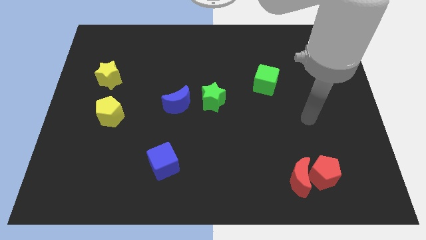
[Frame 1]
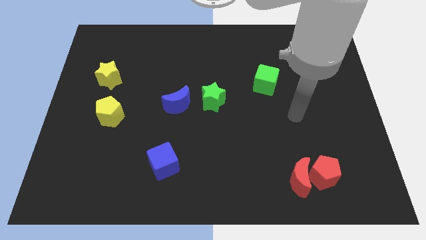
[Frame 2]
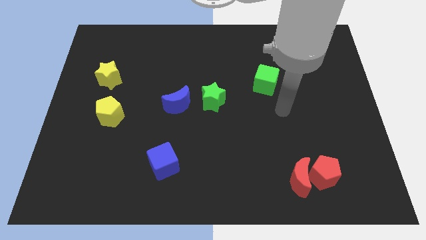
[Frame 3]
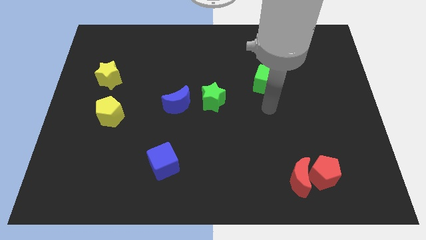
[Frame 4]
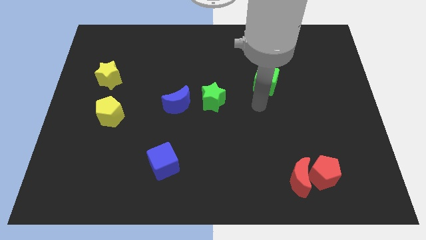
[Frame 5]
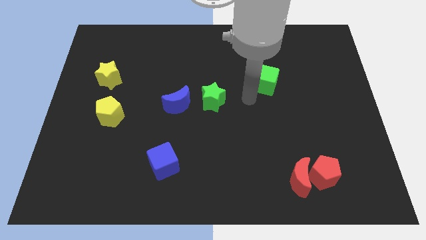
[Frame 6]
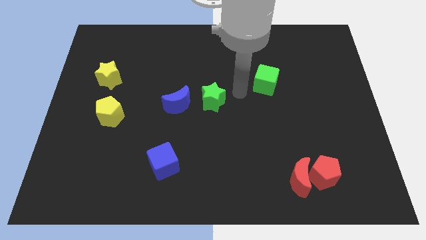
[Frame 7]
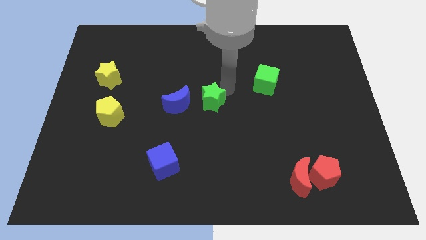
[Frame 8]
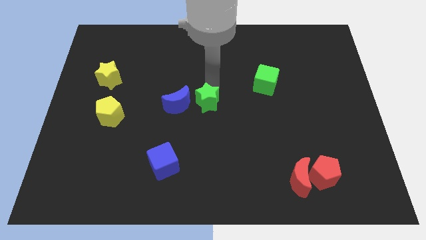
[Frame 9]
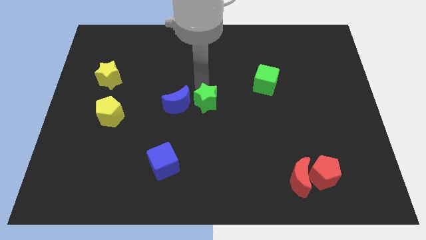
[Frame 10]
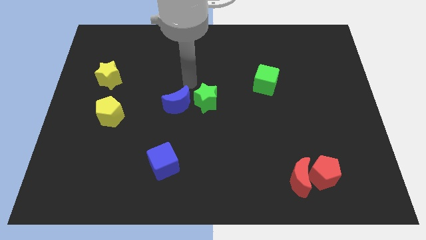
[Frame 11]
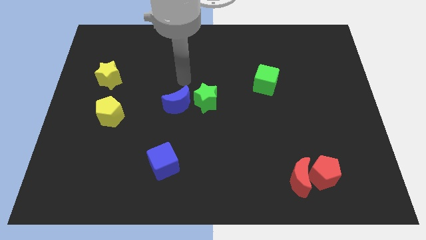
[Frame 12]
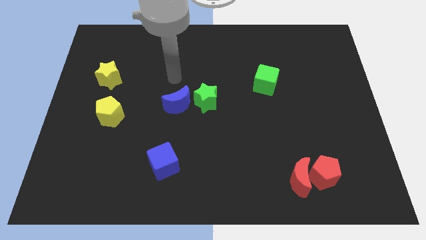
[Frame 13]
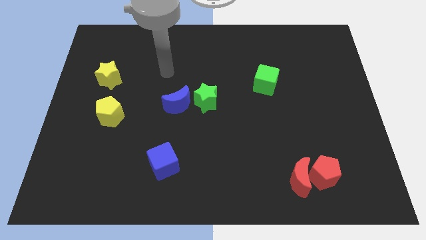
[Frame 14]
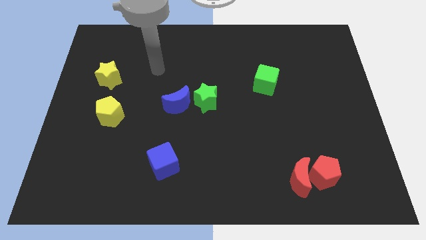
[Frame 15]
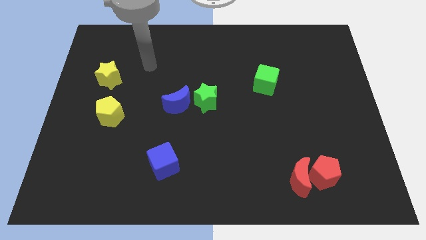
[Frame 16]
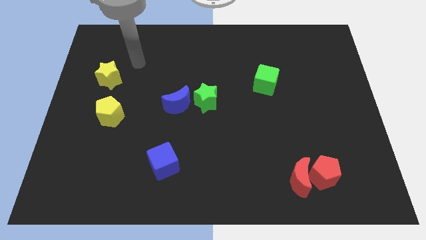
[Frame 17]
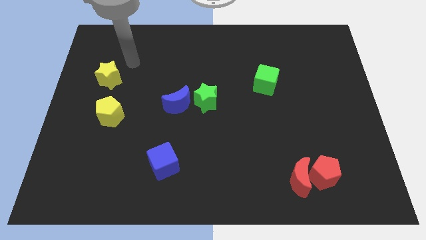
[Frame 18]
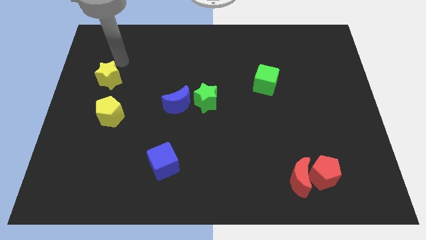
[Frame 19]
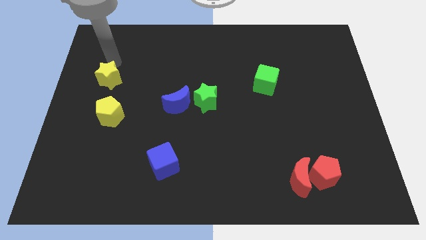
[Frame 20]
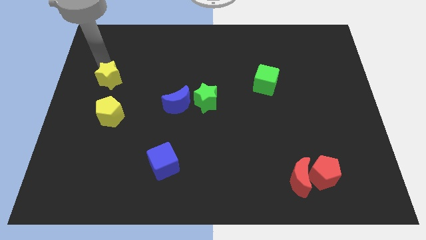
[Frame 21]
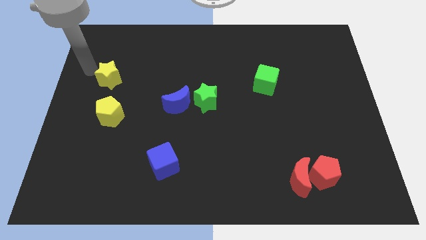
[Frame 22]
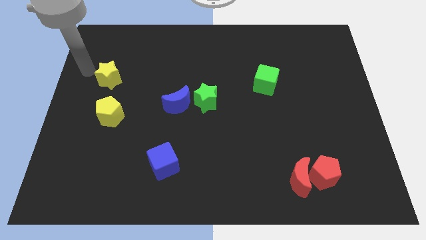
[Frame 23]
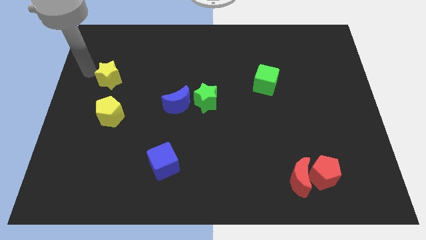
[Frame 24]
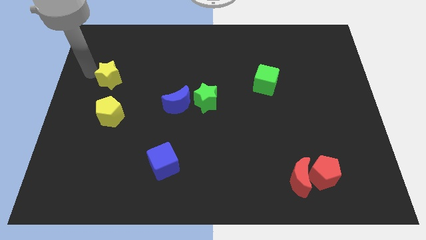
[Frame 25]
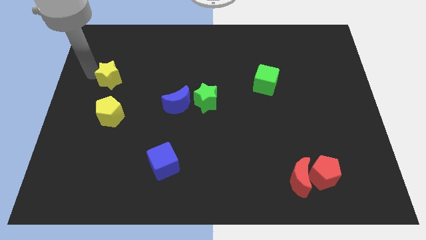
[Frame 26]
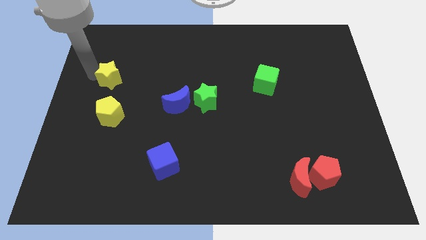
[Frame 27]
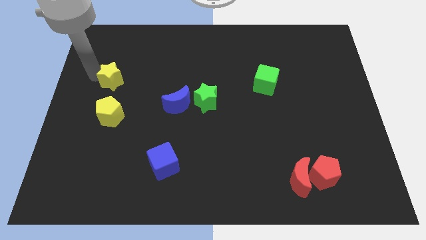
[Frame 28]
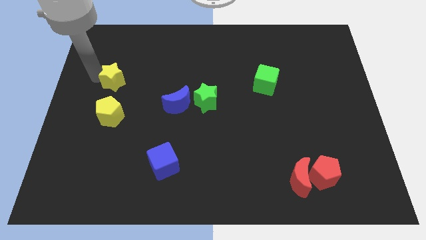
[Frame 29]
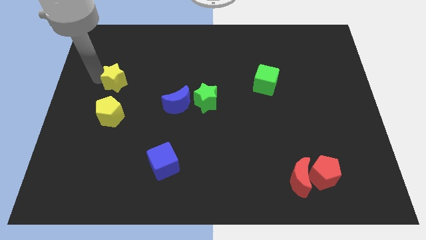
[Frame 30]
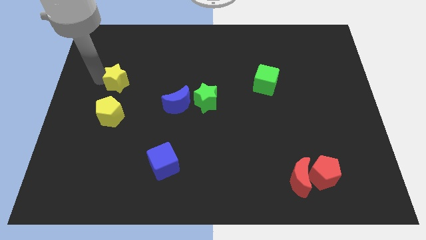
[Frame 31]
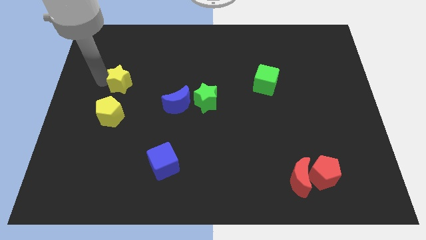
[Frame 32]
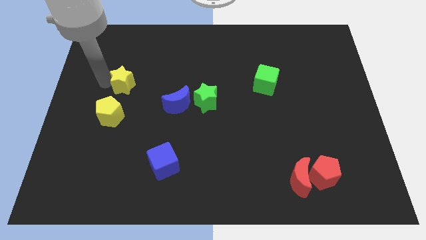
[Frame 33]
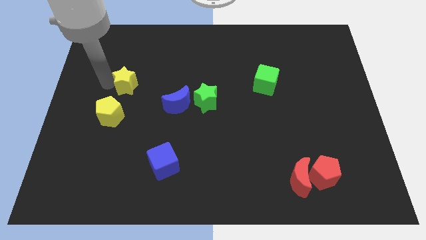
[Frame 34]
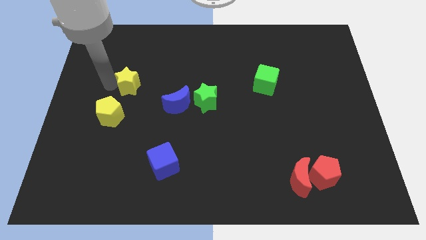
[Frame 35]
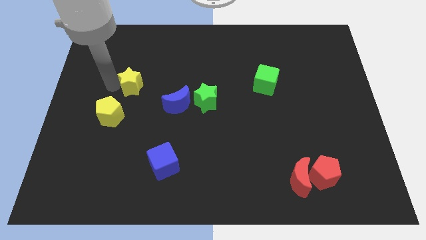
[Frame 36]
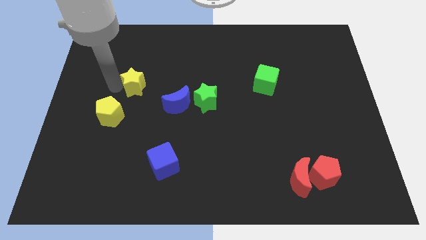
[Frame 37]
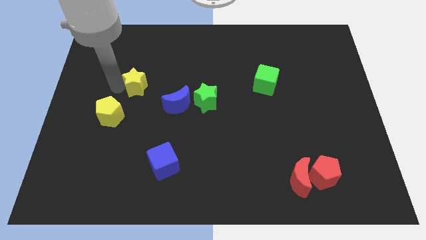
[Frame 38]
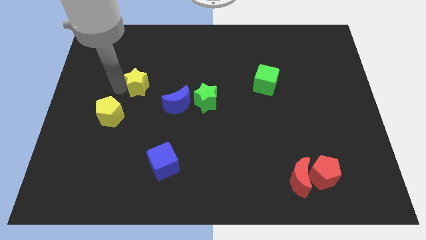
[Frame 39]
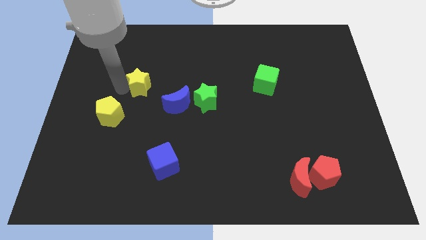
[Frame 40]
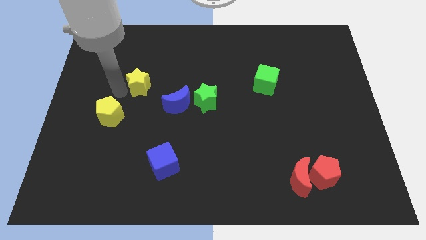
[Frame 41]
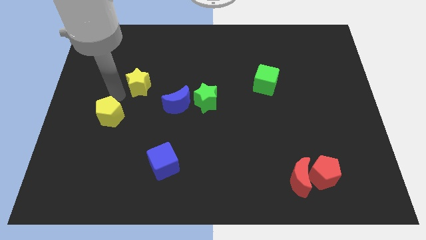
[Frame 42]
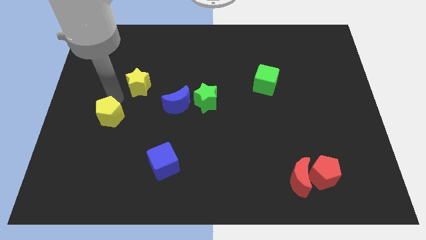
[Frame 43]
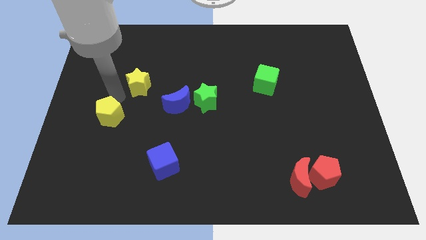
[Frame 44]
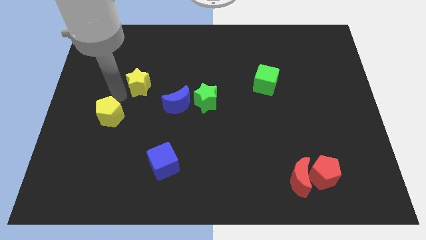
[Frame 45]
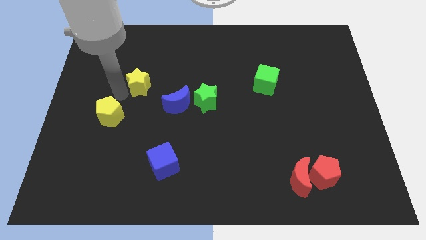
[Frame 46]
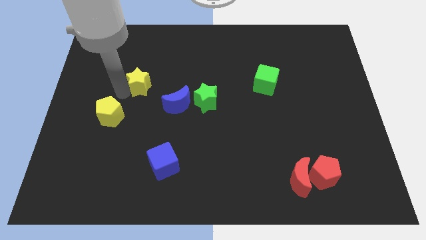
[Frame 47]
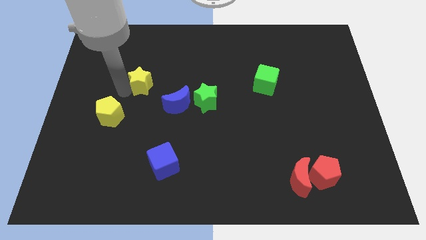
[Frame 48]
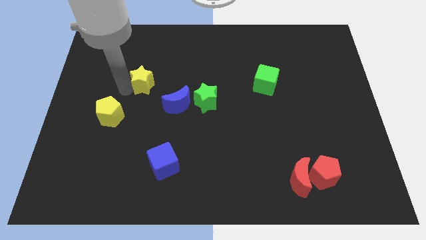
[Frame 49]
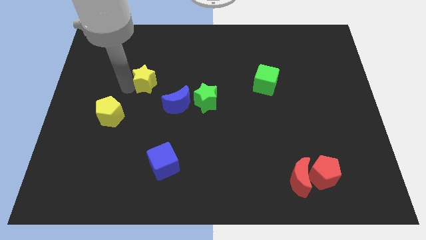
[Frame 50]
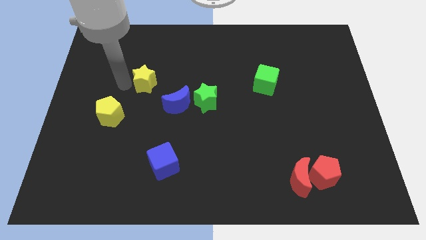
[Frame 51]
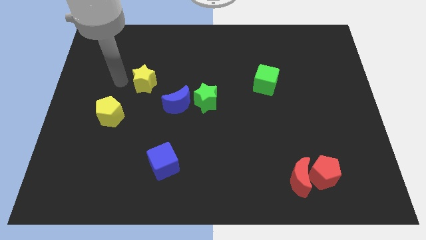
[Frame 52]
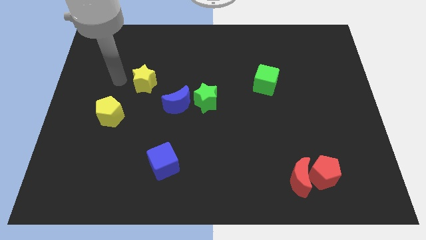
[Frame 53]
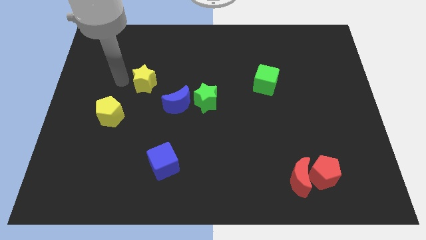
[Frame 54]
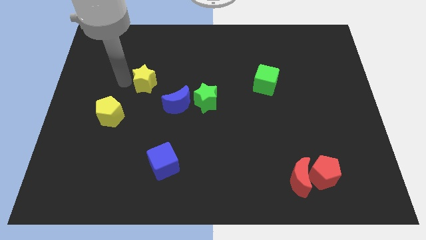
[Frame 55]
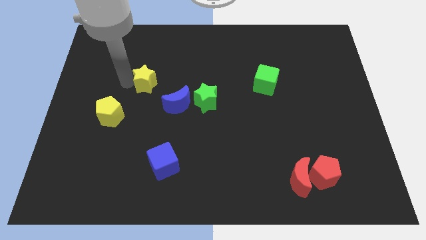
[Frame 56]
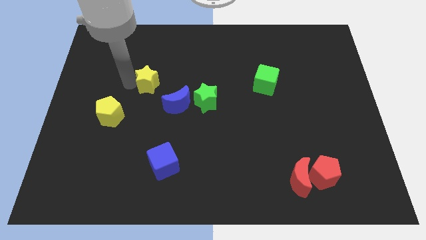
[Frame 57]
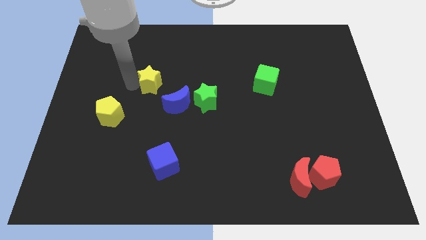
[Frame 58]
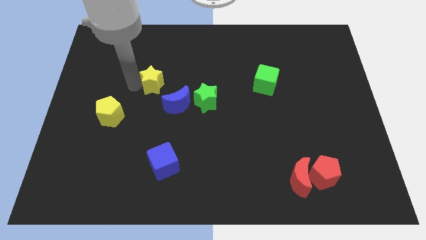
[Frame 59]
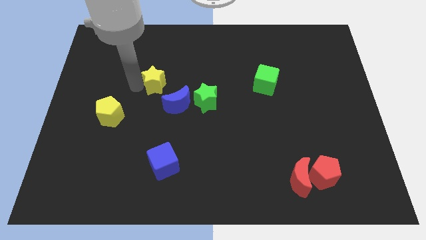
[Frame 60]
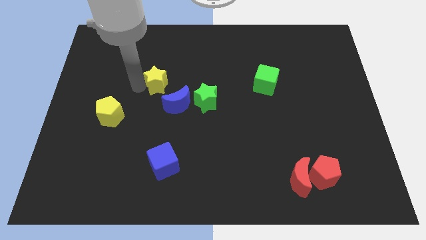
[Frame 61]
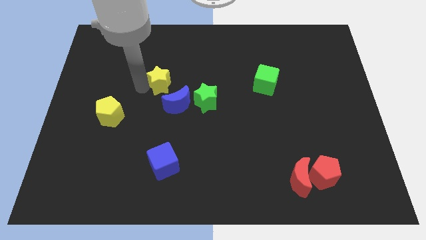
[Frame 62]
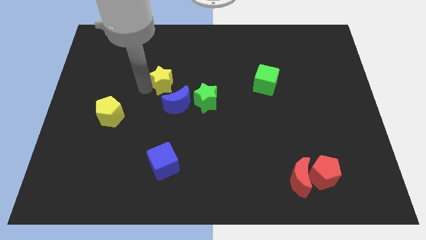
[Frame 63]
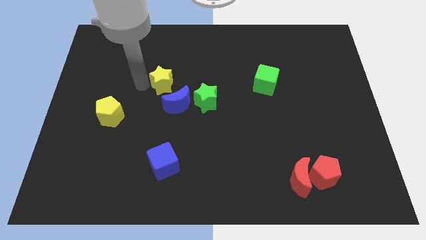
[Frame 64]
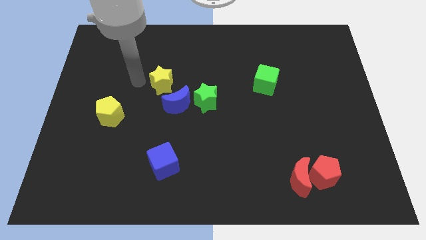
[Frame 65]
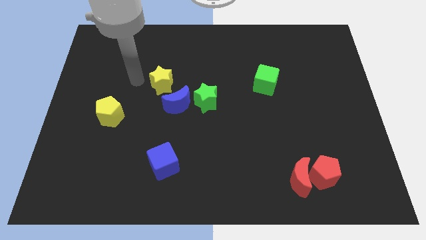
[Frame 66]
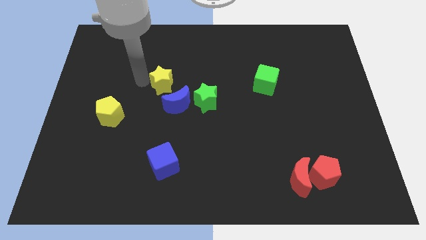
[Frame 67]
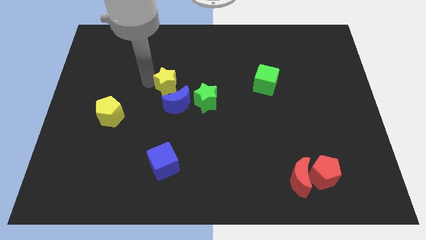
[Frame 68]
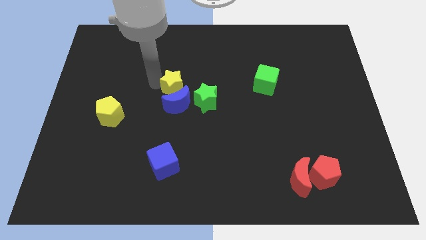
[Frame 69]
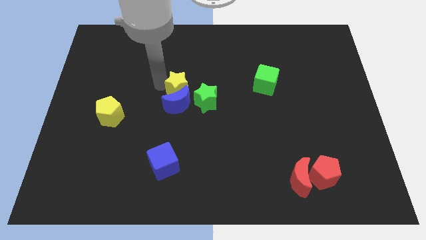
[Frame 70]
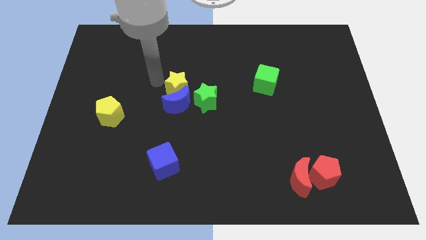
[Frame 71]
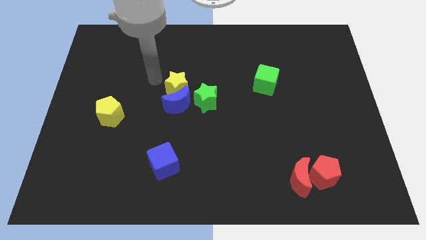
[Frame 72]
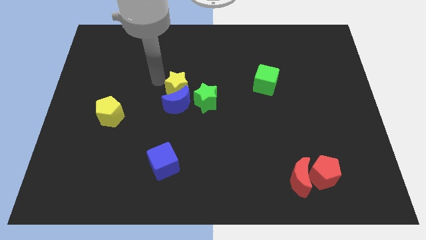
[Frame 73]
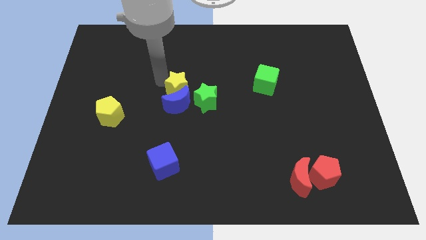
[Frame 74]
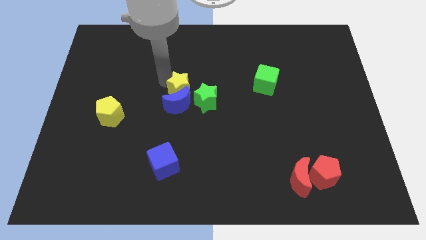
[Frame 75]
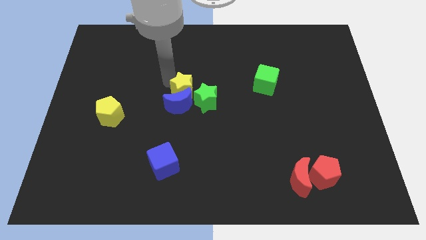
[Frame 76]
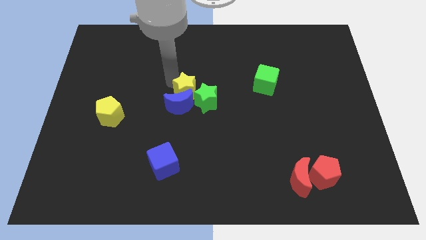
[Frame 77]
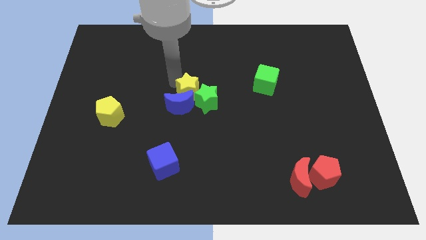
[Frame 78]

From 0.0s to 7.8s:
slide the yellow star close to the green star
